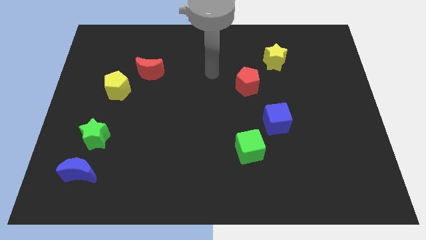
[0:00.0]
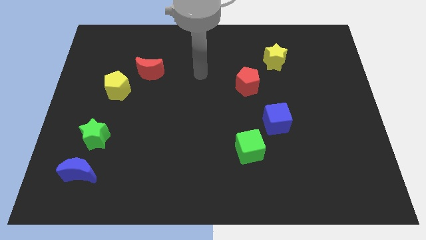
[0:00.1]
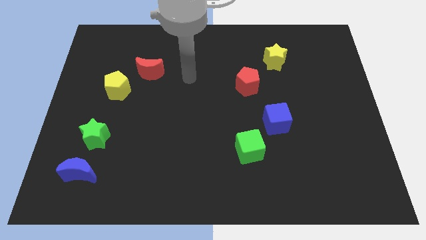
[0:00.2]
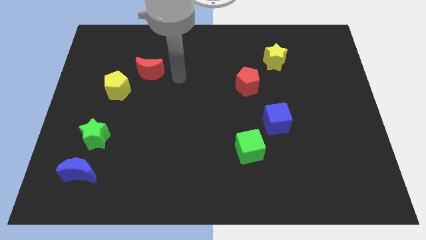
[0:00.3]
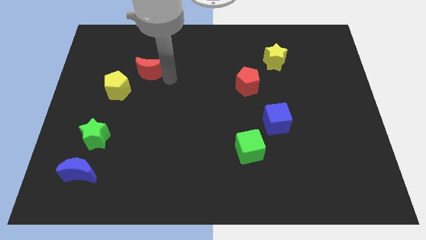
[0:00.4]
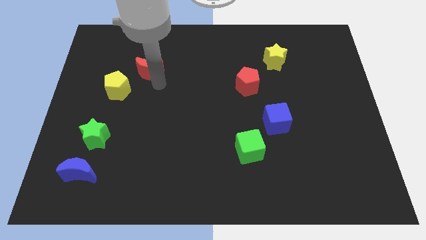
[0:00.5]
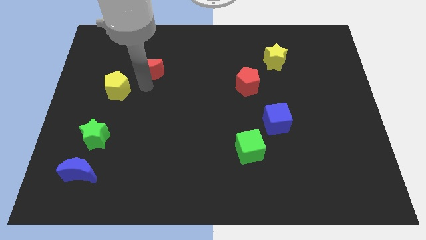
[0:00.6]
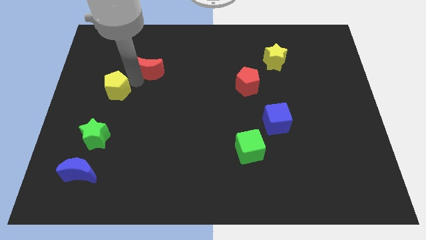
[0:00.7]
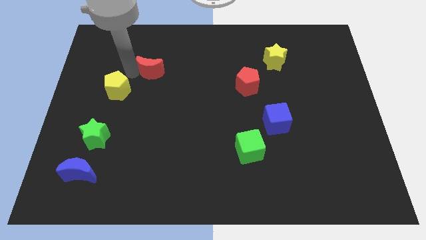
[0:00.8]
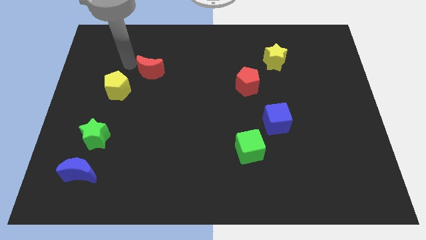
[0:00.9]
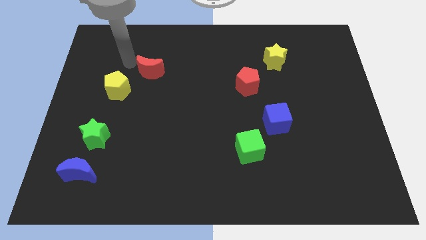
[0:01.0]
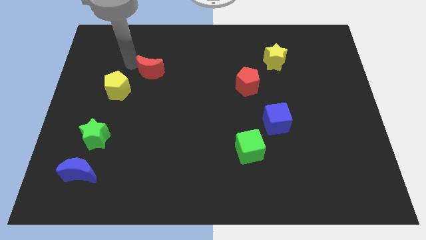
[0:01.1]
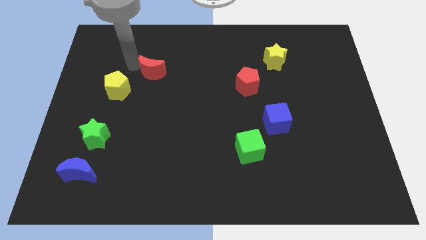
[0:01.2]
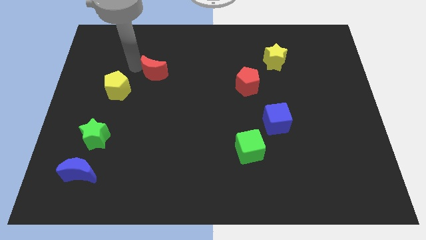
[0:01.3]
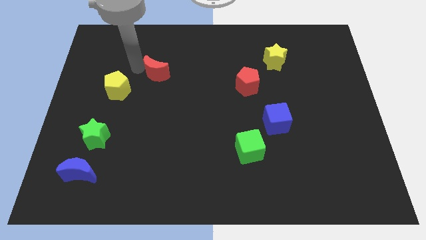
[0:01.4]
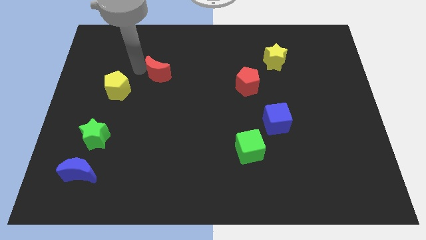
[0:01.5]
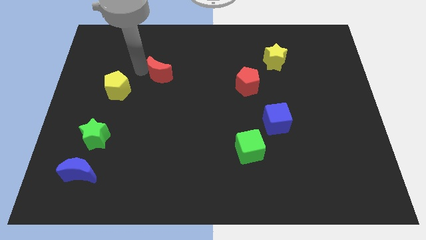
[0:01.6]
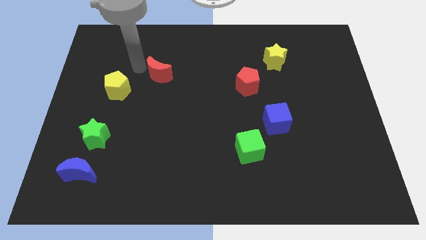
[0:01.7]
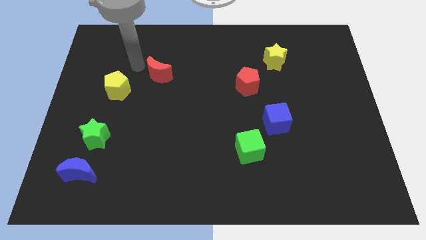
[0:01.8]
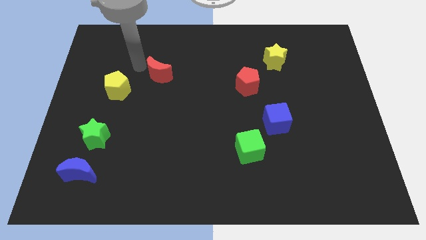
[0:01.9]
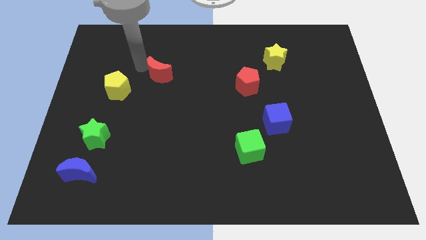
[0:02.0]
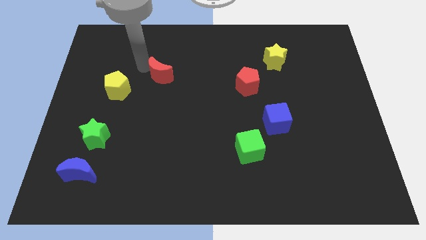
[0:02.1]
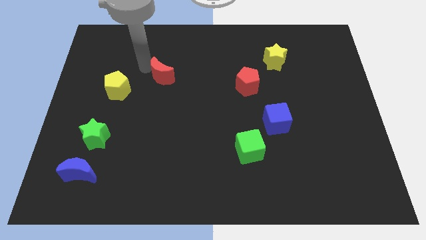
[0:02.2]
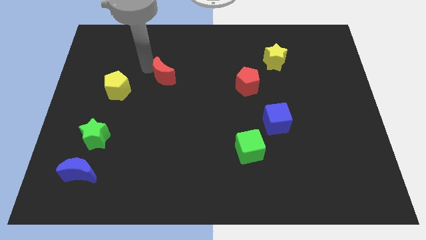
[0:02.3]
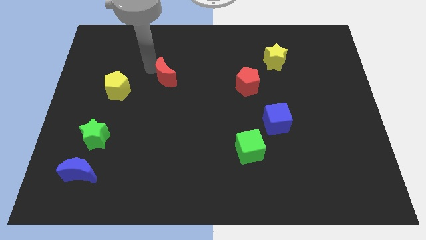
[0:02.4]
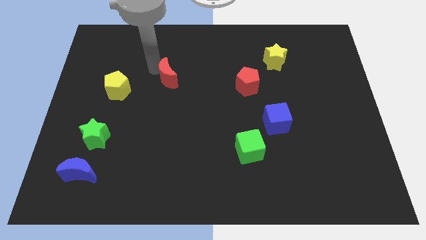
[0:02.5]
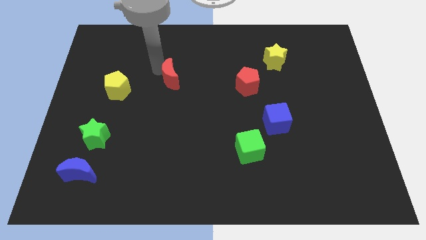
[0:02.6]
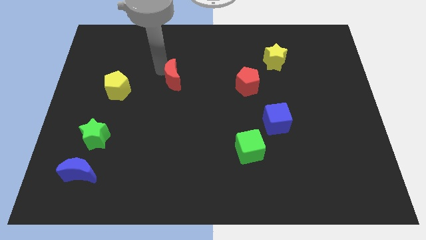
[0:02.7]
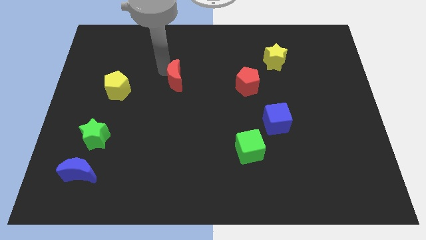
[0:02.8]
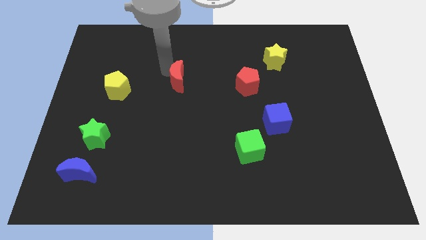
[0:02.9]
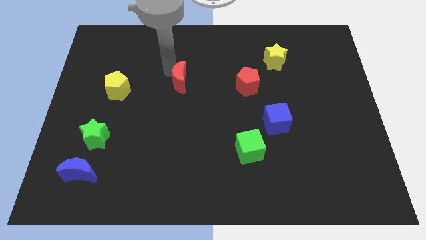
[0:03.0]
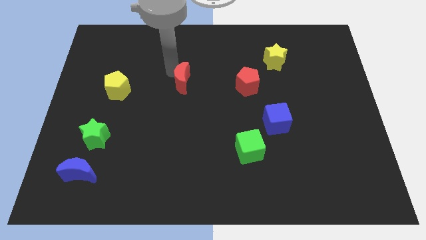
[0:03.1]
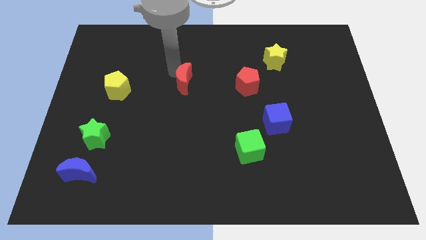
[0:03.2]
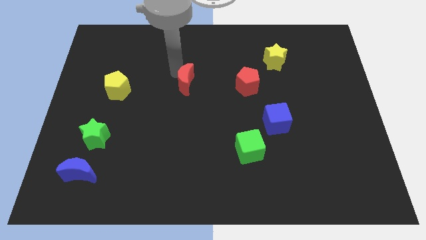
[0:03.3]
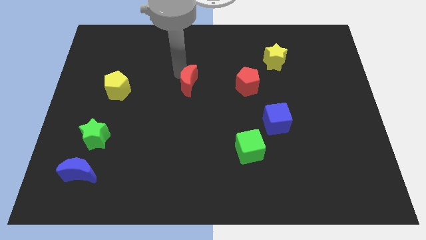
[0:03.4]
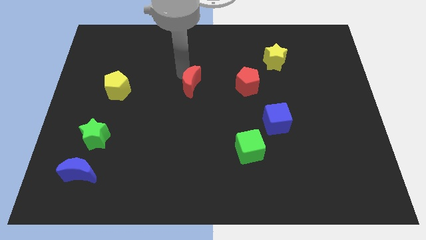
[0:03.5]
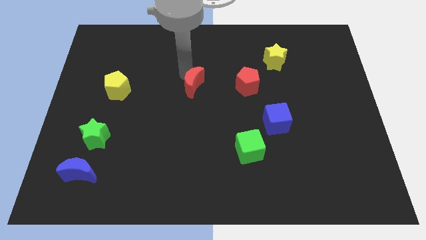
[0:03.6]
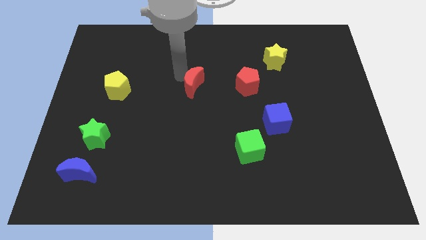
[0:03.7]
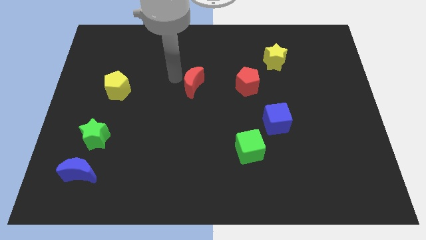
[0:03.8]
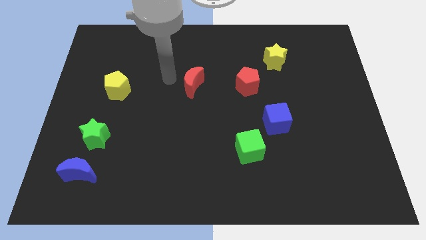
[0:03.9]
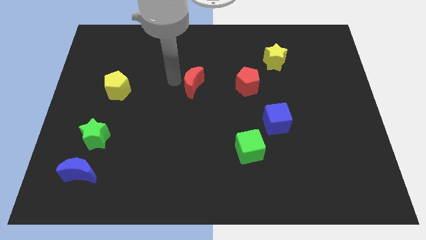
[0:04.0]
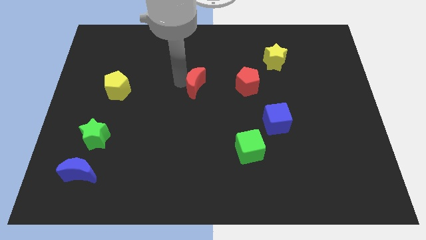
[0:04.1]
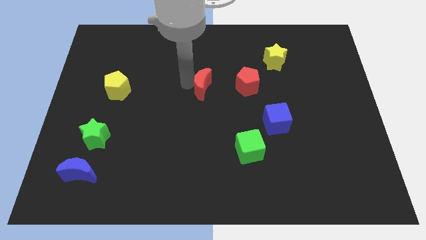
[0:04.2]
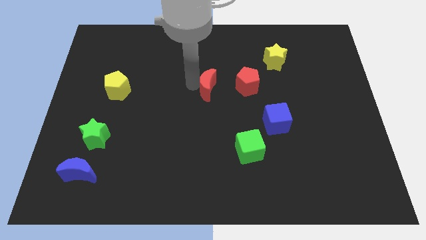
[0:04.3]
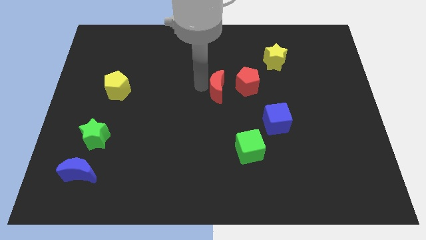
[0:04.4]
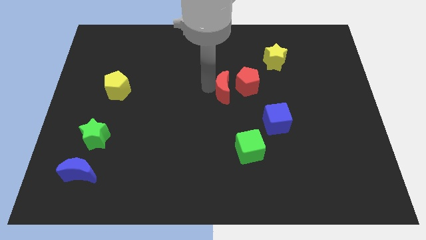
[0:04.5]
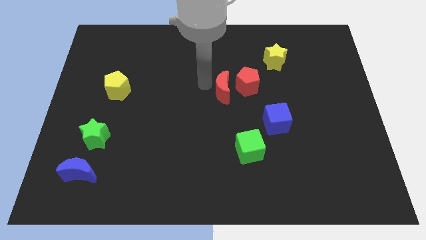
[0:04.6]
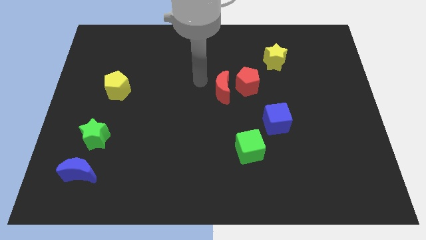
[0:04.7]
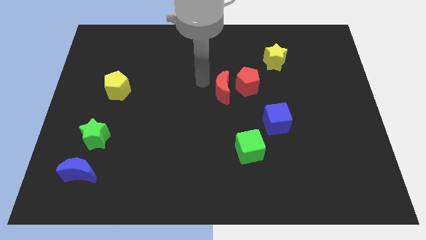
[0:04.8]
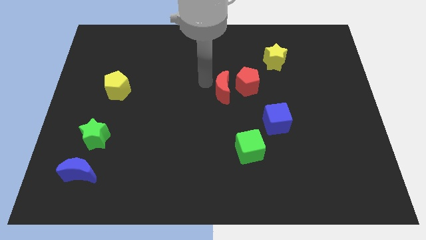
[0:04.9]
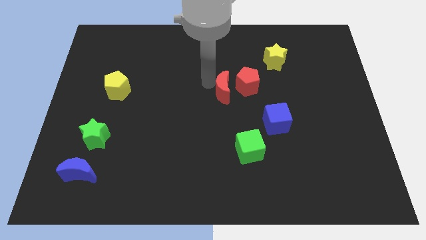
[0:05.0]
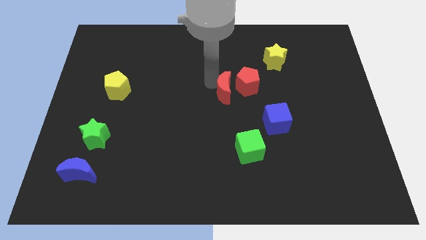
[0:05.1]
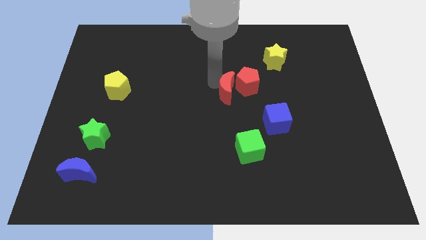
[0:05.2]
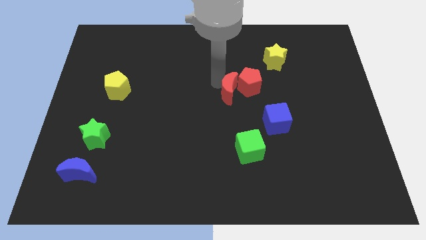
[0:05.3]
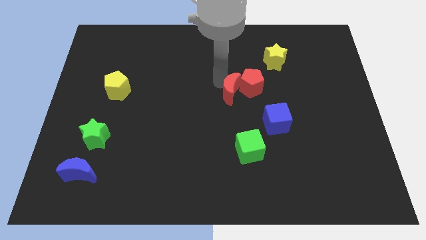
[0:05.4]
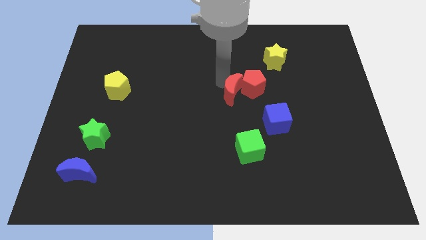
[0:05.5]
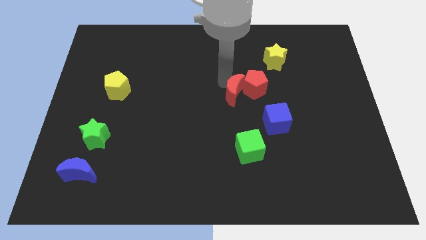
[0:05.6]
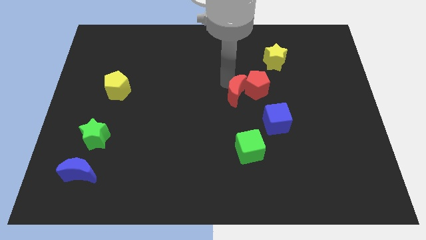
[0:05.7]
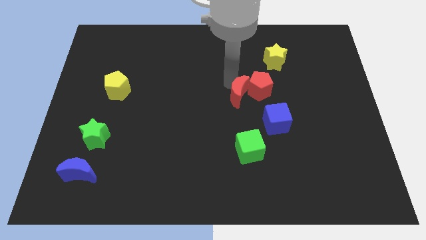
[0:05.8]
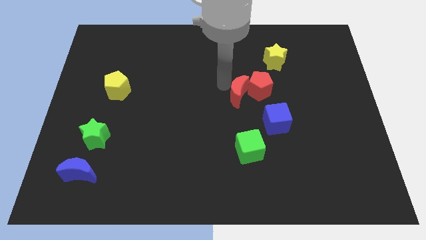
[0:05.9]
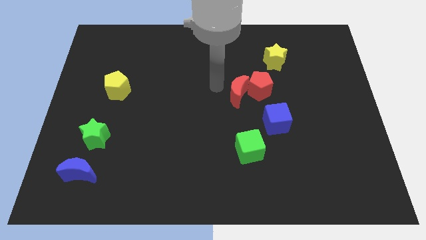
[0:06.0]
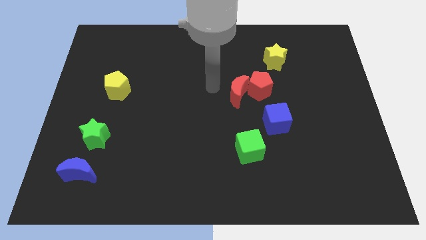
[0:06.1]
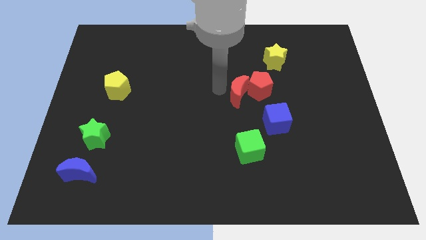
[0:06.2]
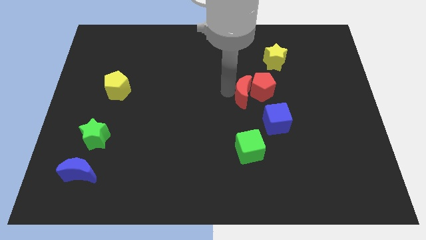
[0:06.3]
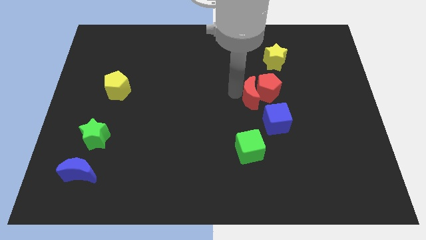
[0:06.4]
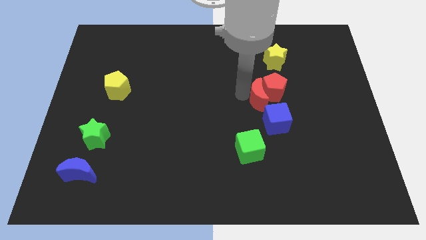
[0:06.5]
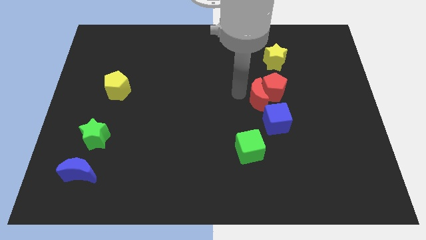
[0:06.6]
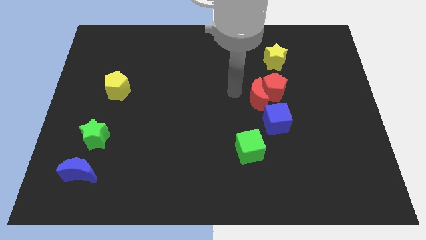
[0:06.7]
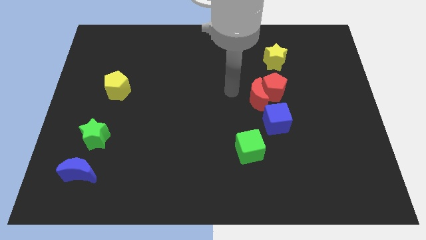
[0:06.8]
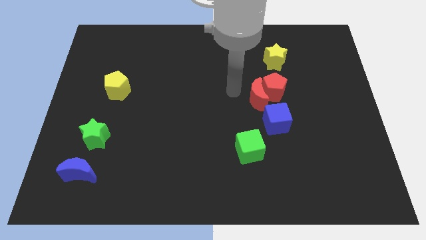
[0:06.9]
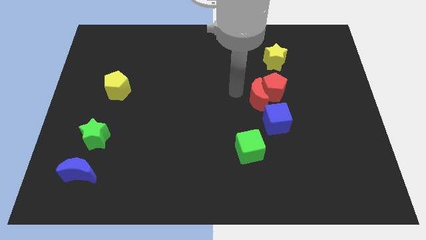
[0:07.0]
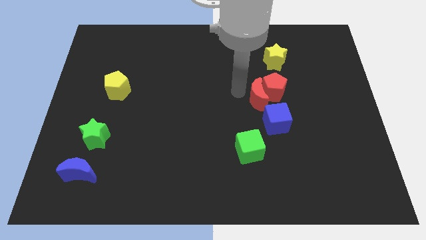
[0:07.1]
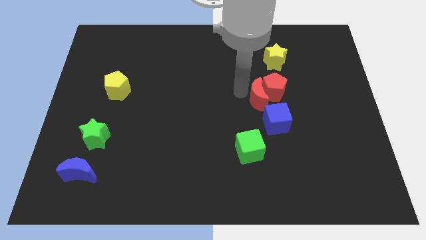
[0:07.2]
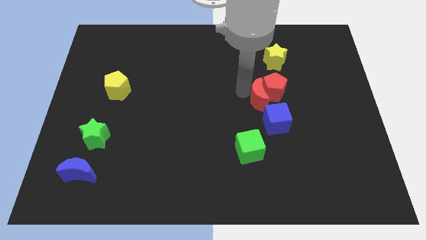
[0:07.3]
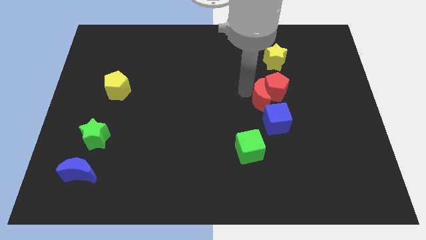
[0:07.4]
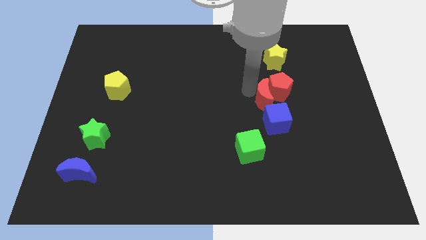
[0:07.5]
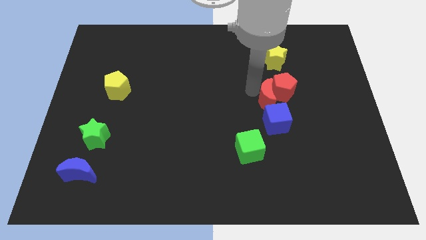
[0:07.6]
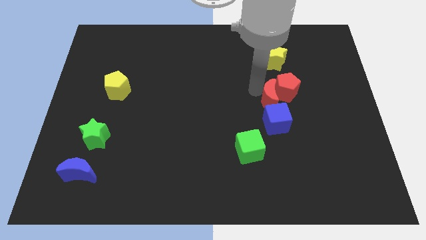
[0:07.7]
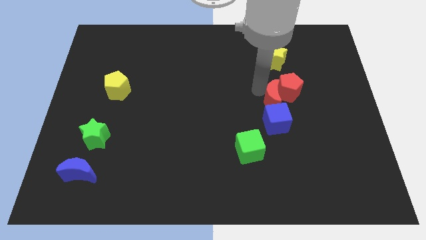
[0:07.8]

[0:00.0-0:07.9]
put the red moon to the top right side of the blue cube
